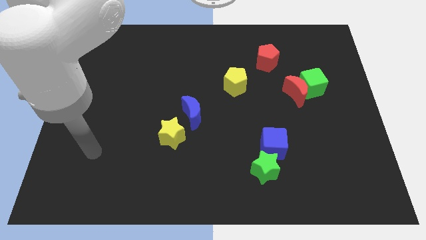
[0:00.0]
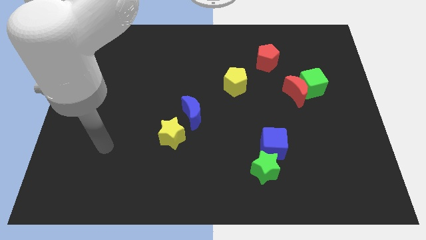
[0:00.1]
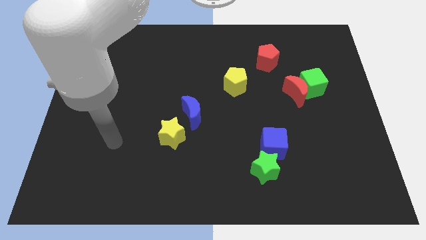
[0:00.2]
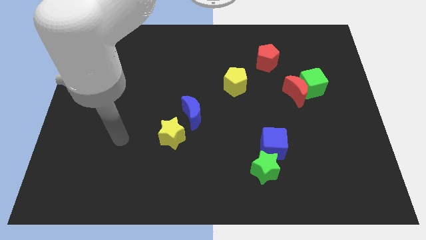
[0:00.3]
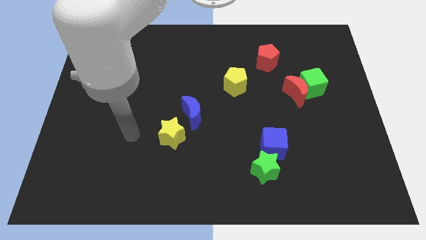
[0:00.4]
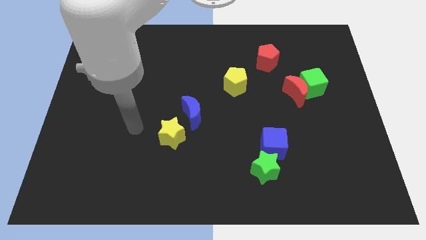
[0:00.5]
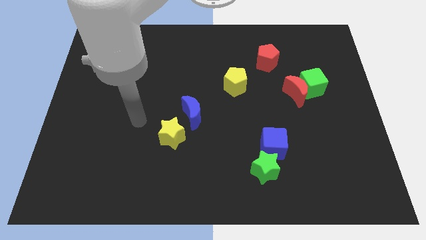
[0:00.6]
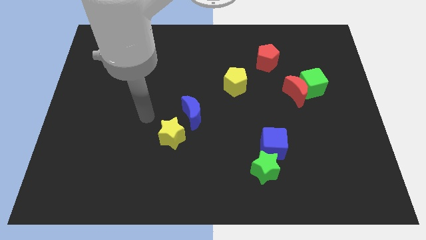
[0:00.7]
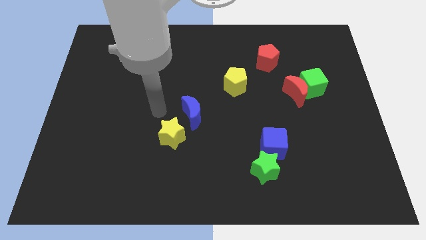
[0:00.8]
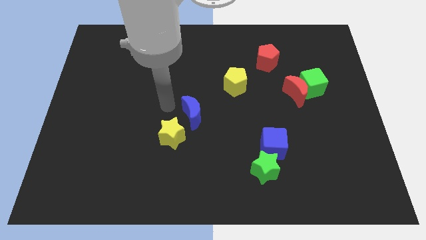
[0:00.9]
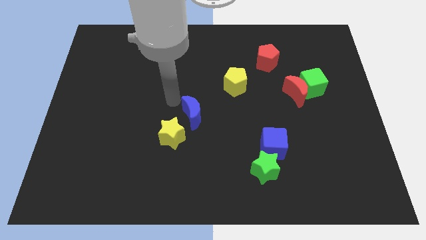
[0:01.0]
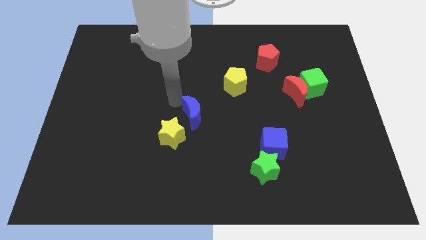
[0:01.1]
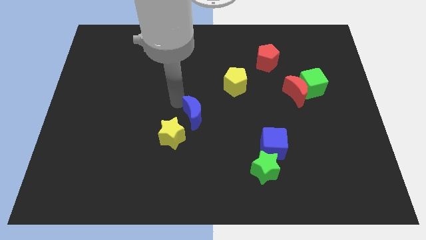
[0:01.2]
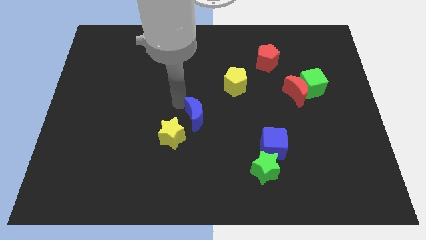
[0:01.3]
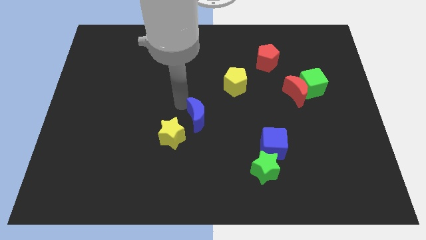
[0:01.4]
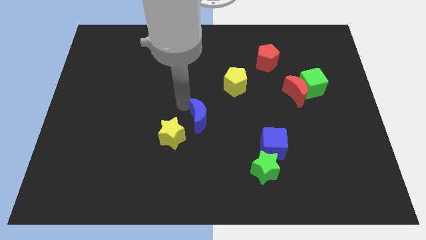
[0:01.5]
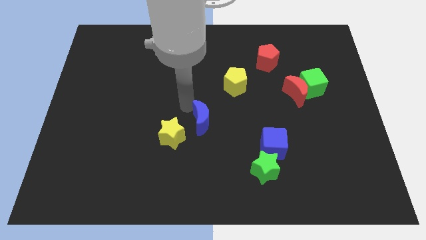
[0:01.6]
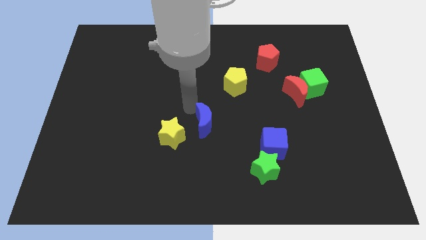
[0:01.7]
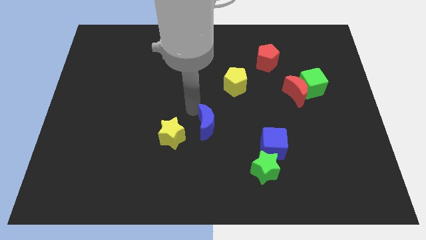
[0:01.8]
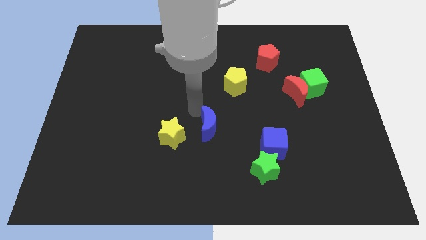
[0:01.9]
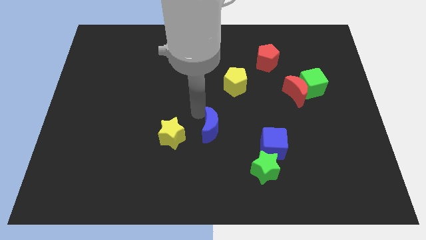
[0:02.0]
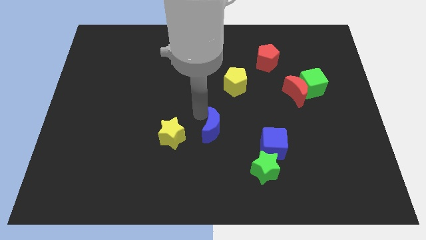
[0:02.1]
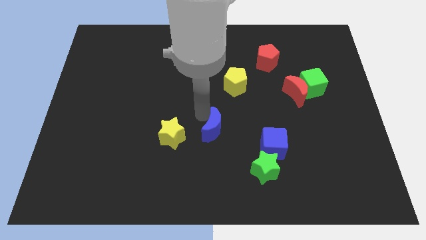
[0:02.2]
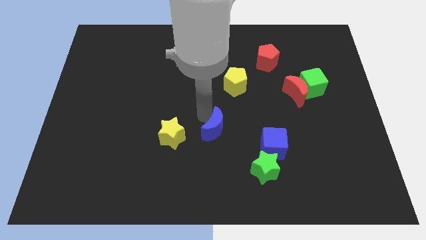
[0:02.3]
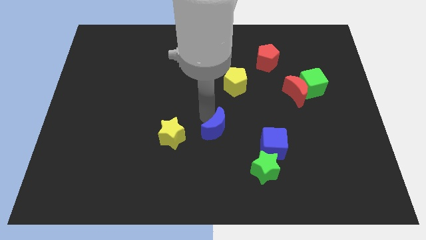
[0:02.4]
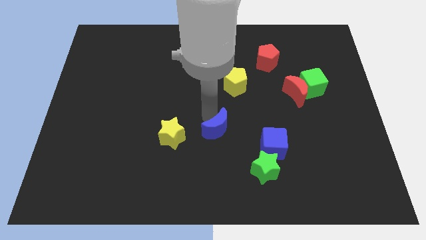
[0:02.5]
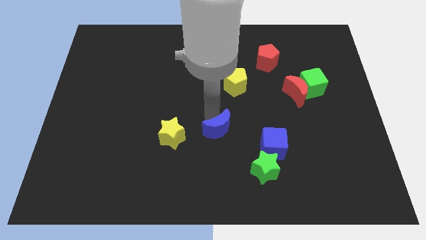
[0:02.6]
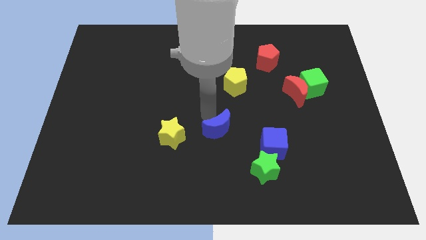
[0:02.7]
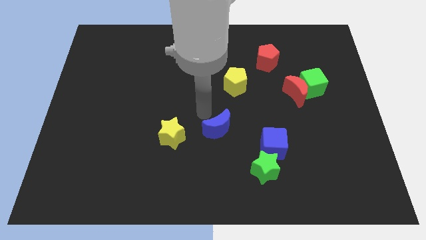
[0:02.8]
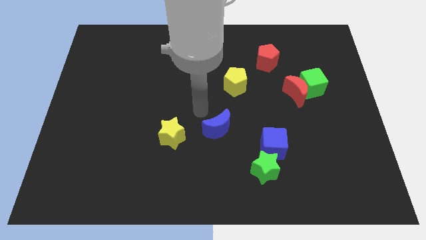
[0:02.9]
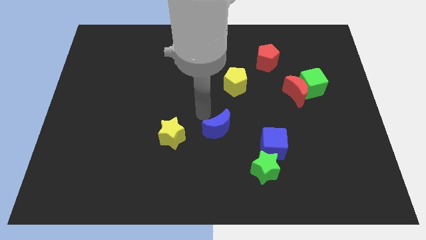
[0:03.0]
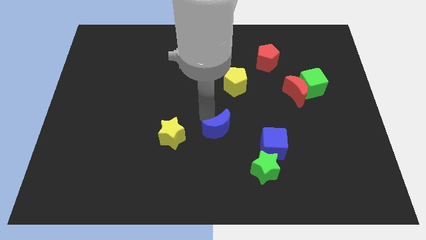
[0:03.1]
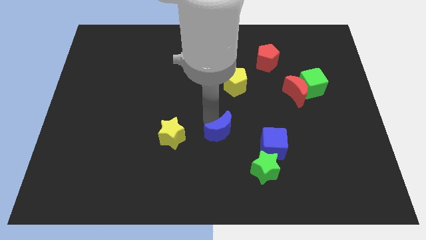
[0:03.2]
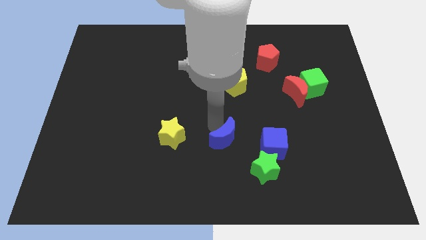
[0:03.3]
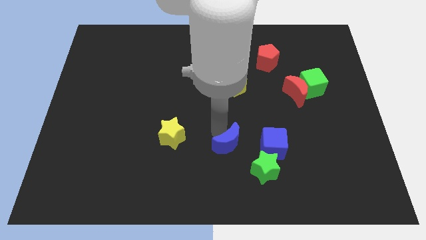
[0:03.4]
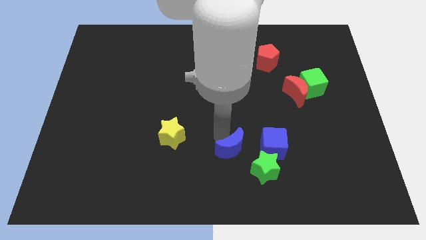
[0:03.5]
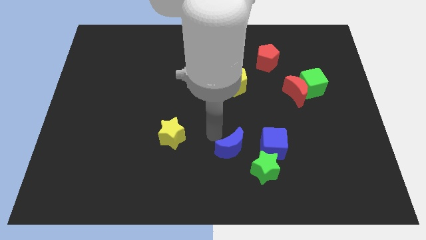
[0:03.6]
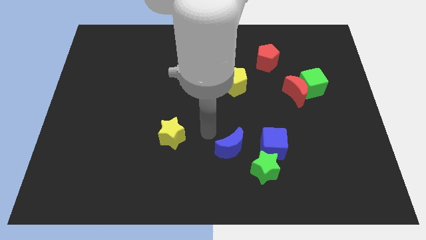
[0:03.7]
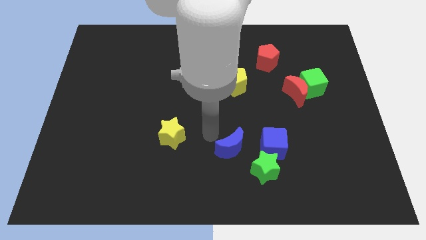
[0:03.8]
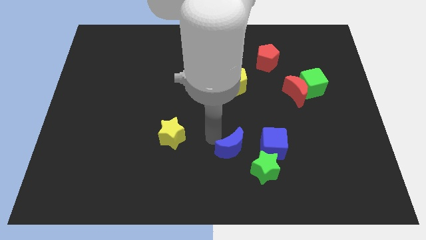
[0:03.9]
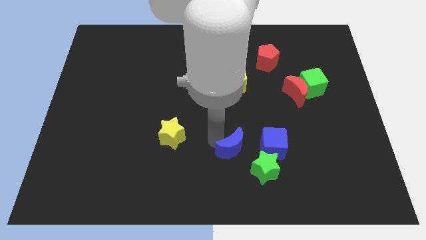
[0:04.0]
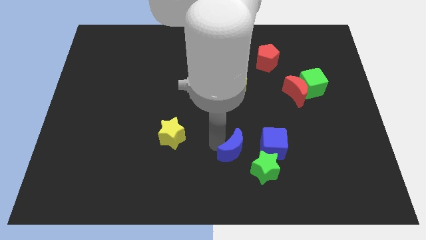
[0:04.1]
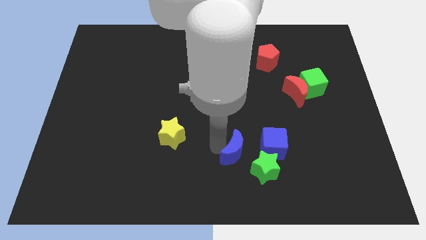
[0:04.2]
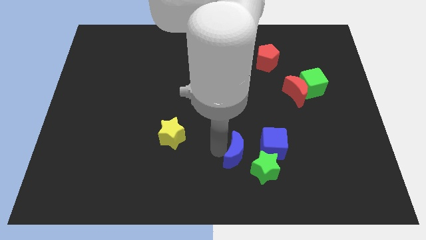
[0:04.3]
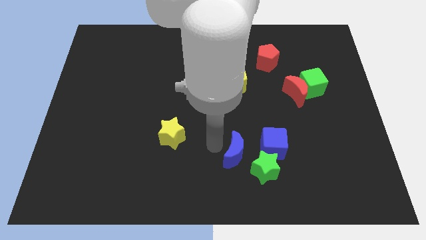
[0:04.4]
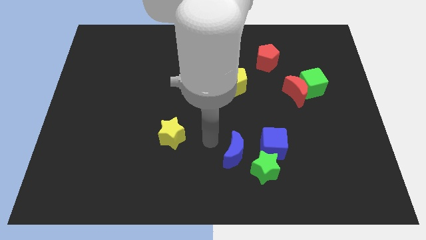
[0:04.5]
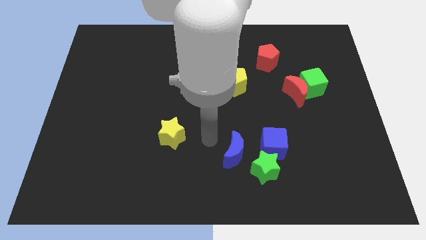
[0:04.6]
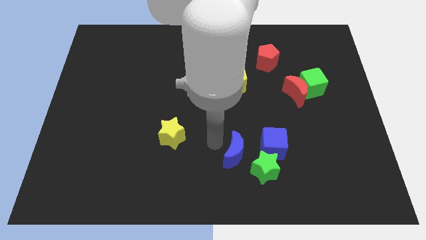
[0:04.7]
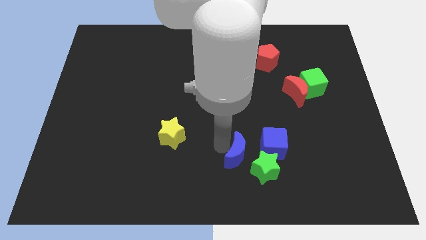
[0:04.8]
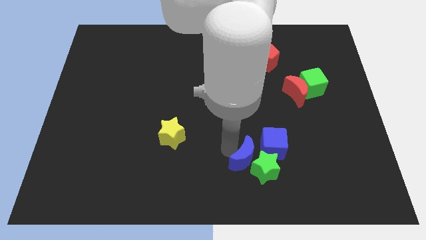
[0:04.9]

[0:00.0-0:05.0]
move the blue moon towards the green star

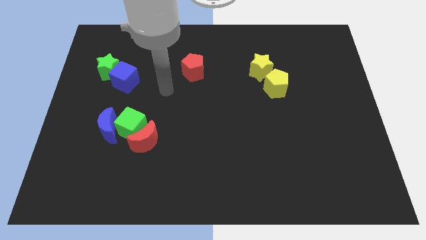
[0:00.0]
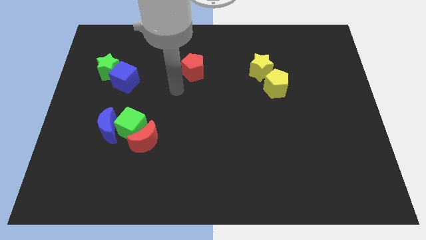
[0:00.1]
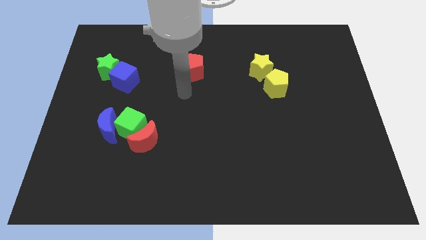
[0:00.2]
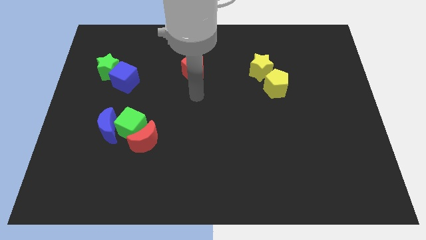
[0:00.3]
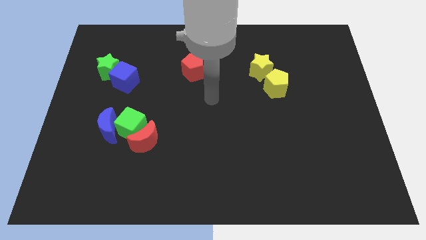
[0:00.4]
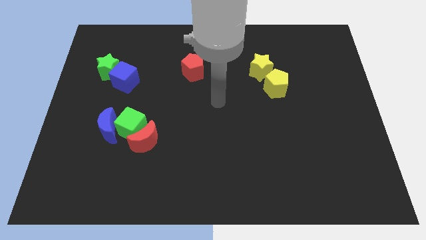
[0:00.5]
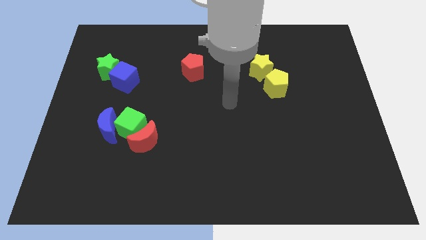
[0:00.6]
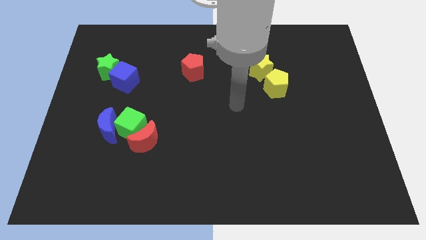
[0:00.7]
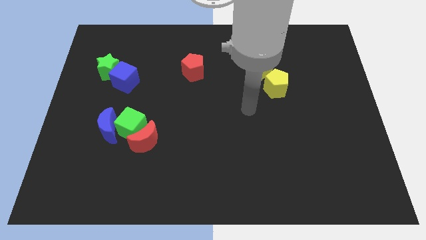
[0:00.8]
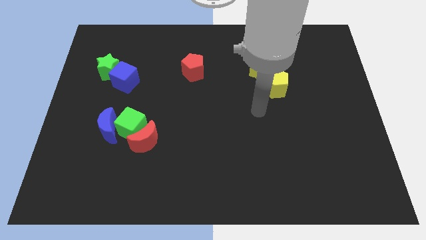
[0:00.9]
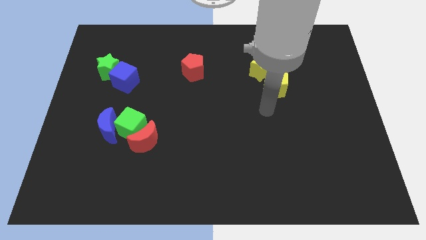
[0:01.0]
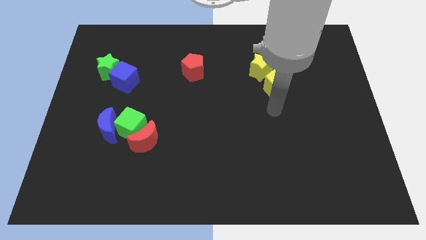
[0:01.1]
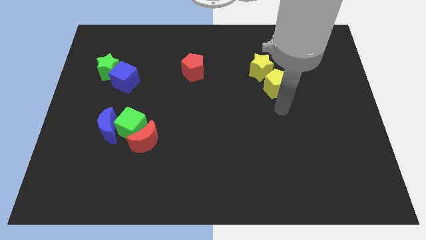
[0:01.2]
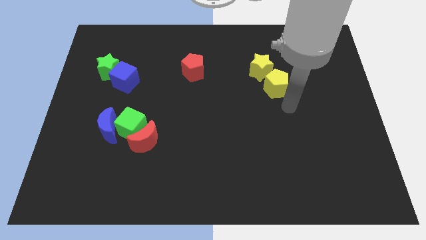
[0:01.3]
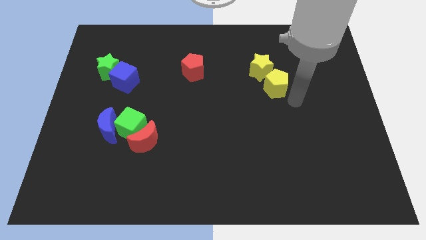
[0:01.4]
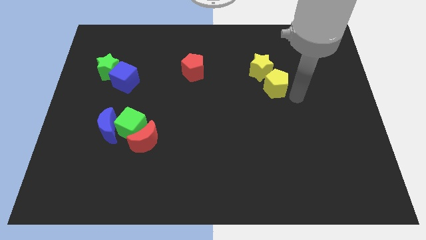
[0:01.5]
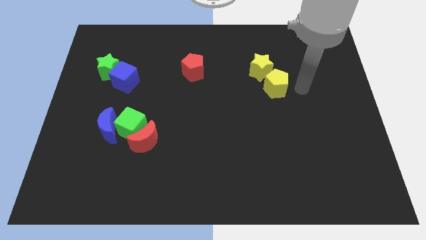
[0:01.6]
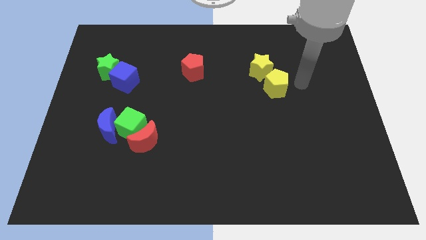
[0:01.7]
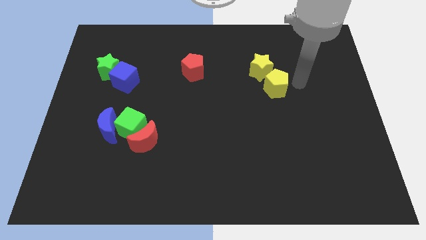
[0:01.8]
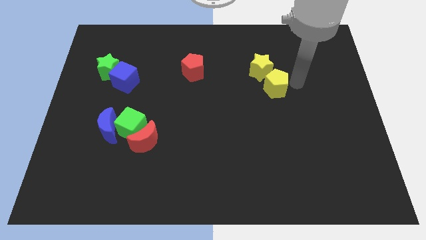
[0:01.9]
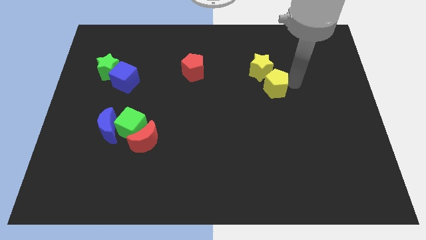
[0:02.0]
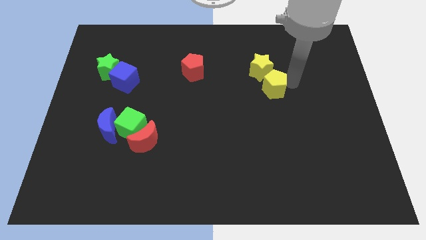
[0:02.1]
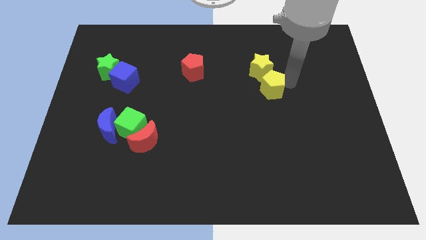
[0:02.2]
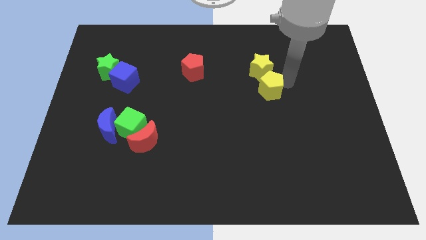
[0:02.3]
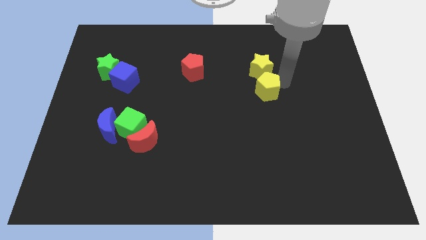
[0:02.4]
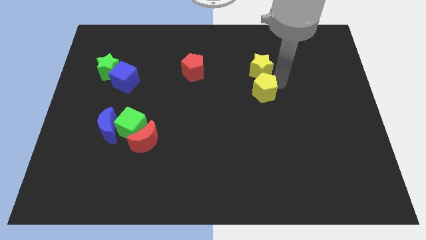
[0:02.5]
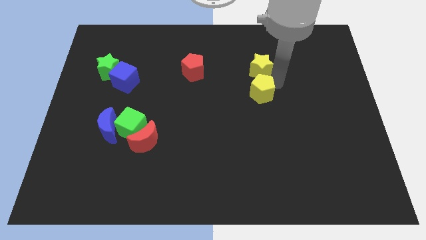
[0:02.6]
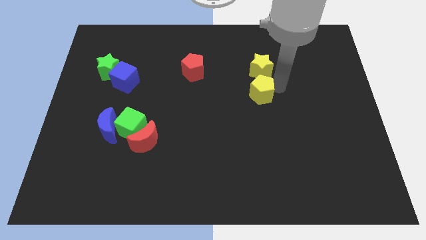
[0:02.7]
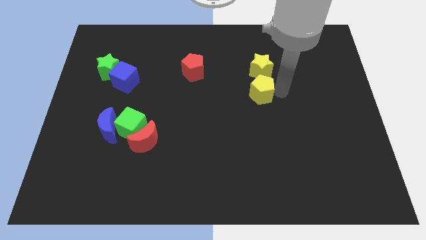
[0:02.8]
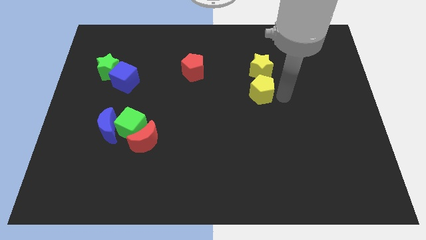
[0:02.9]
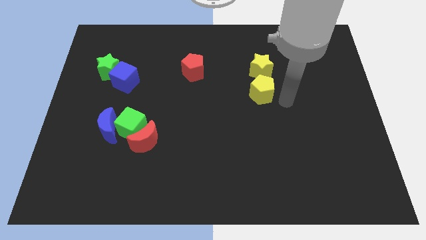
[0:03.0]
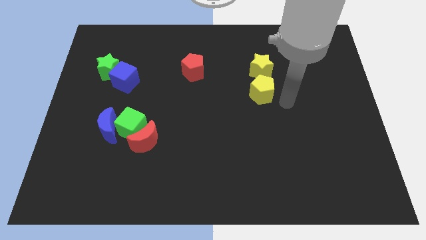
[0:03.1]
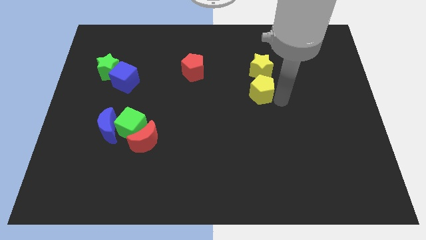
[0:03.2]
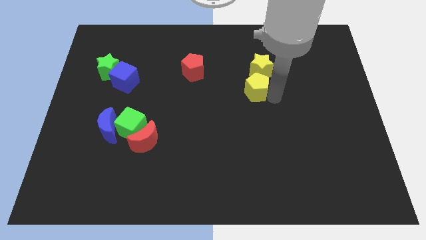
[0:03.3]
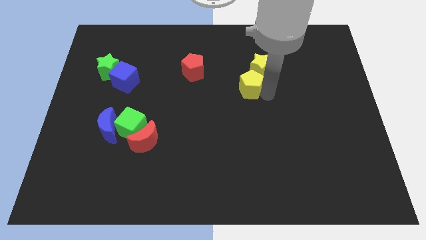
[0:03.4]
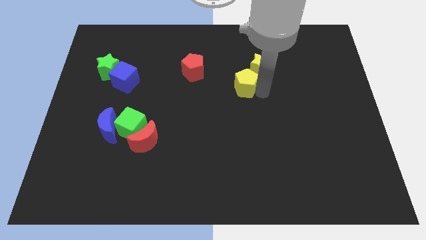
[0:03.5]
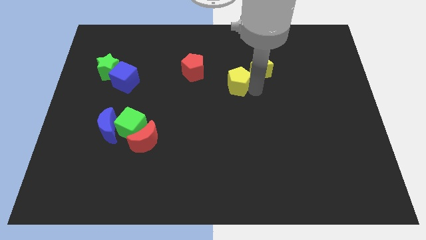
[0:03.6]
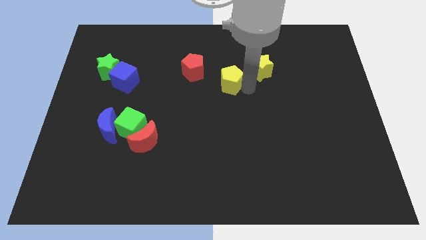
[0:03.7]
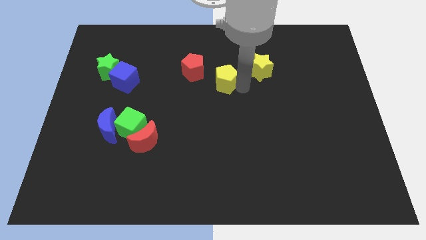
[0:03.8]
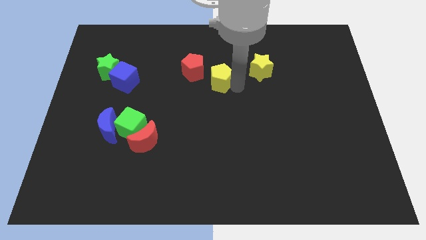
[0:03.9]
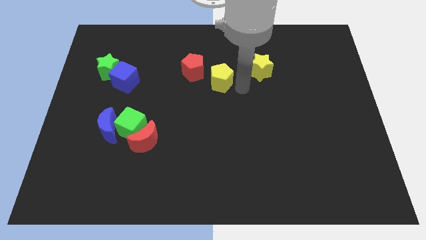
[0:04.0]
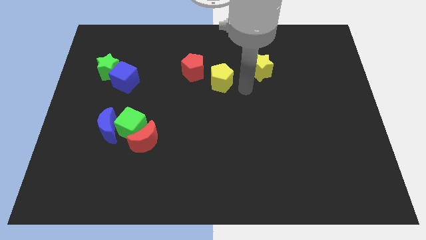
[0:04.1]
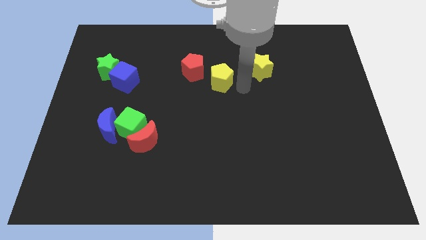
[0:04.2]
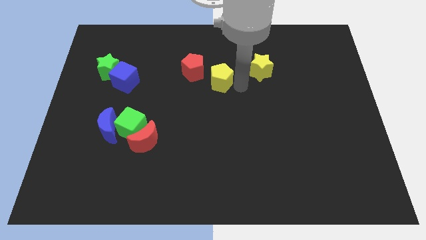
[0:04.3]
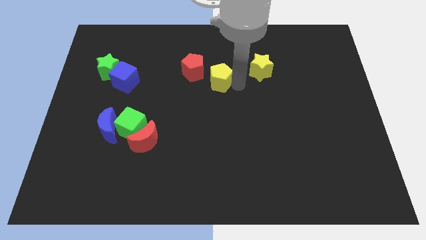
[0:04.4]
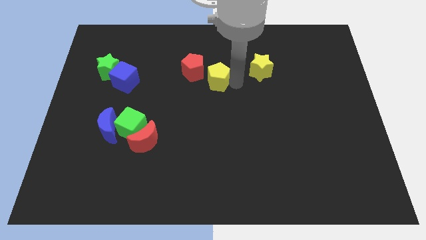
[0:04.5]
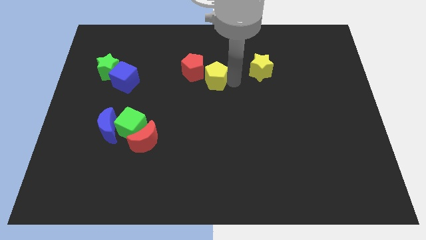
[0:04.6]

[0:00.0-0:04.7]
move the yellow pentagon close to the red pentagon
